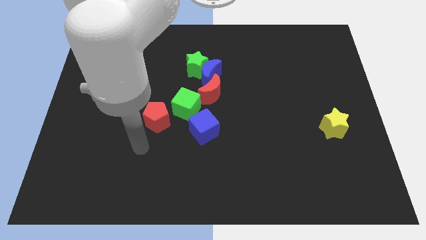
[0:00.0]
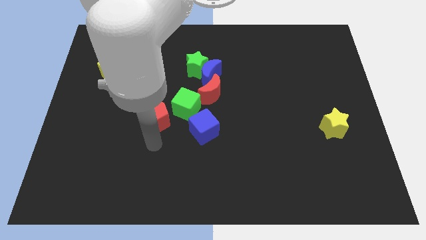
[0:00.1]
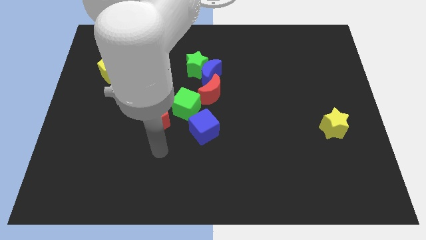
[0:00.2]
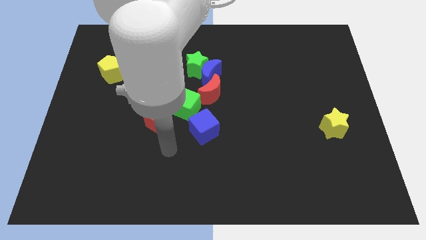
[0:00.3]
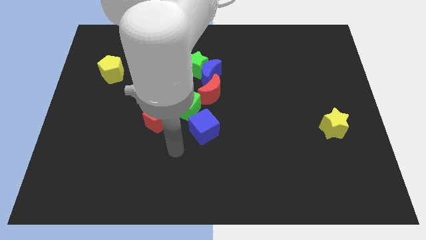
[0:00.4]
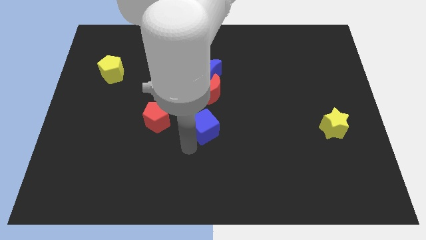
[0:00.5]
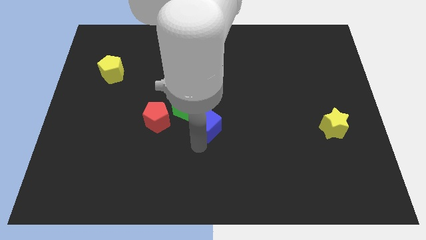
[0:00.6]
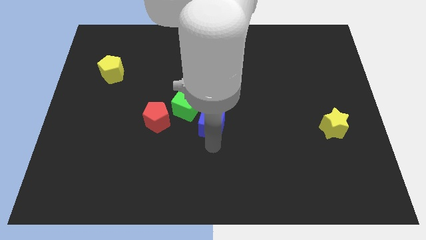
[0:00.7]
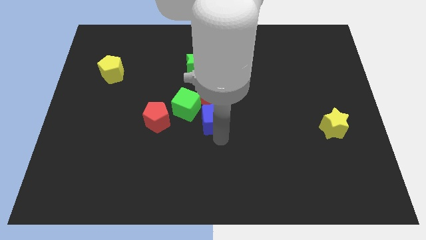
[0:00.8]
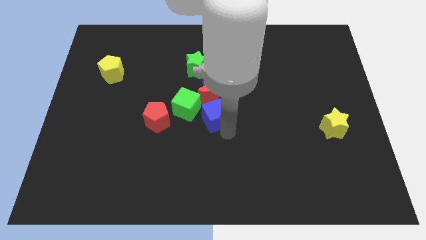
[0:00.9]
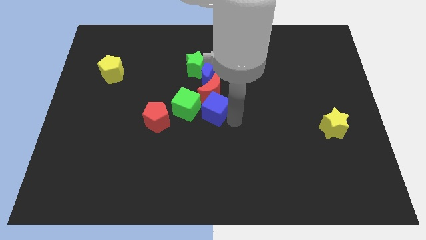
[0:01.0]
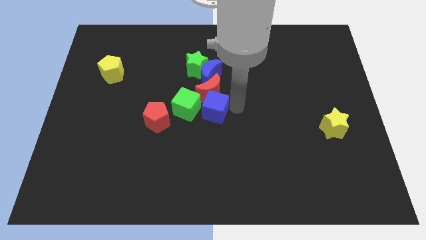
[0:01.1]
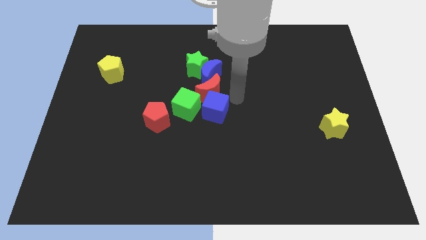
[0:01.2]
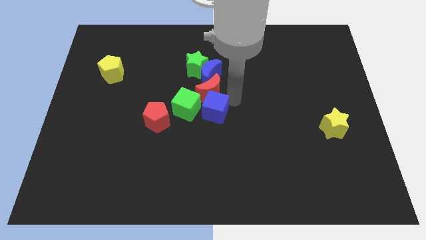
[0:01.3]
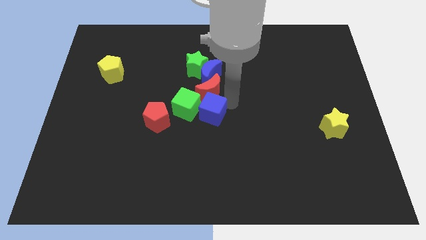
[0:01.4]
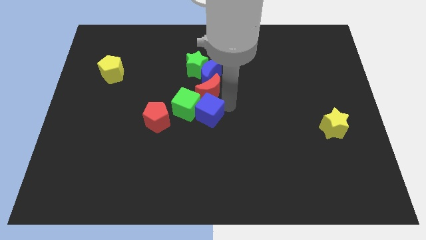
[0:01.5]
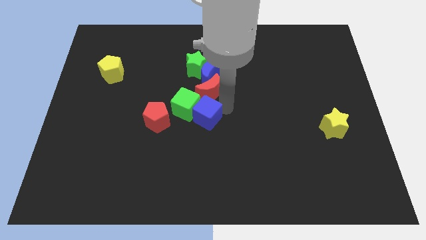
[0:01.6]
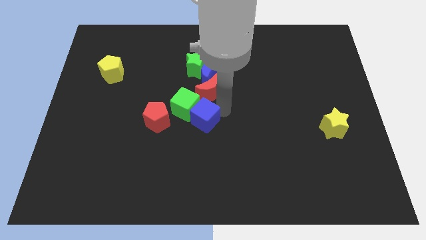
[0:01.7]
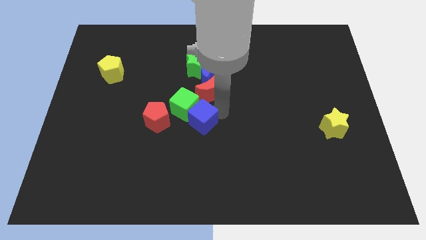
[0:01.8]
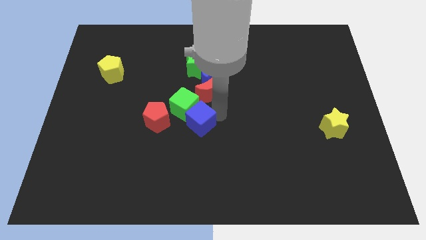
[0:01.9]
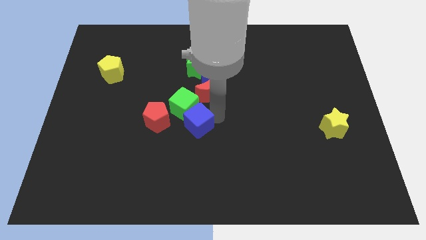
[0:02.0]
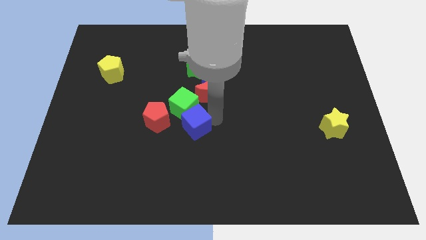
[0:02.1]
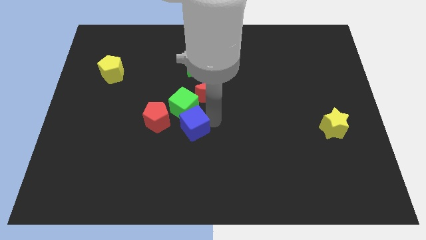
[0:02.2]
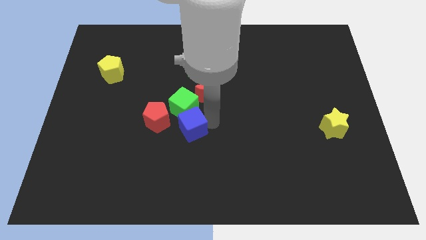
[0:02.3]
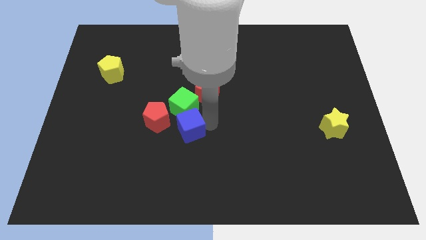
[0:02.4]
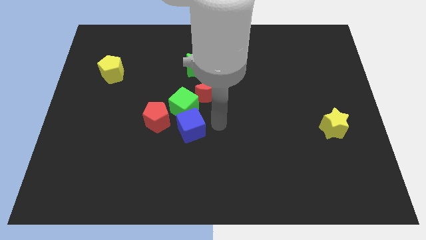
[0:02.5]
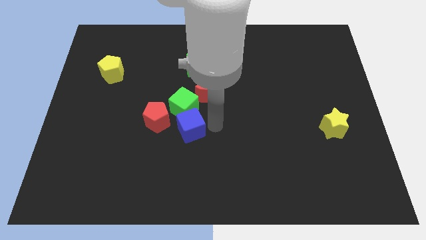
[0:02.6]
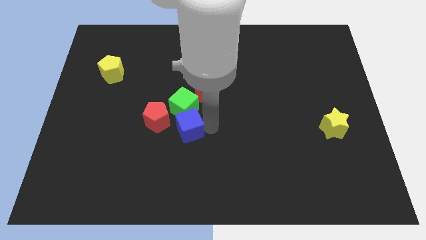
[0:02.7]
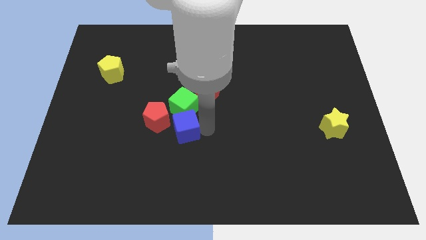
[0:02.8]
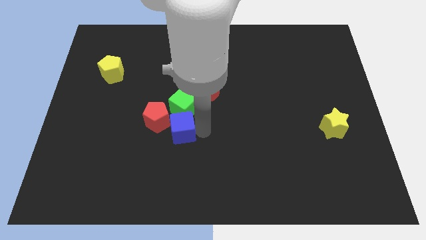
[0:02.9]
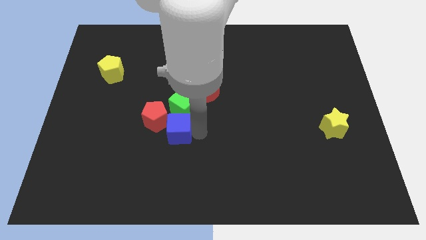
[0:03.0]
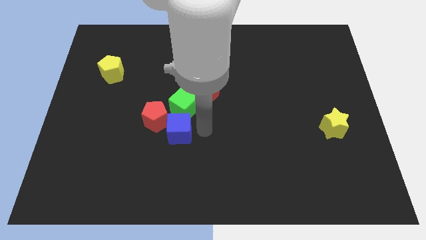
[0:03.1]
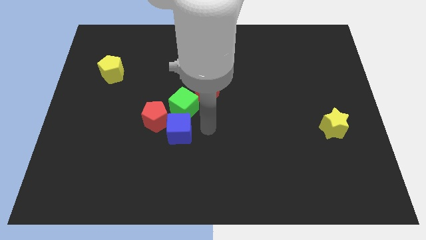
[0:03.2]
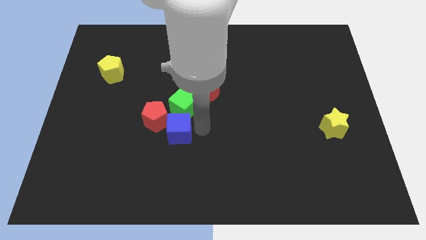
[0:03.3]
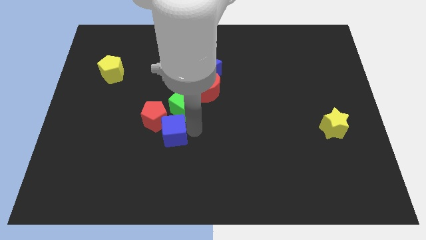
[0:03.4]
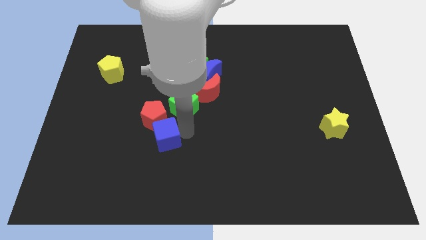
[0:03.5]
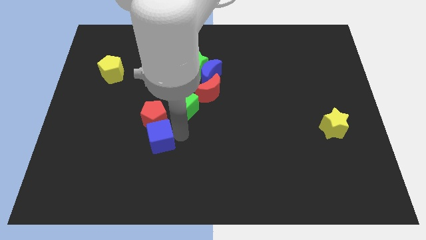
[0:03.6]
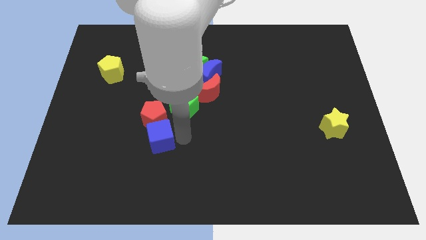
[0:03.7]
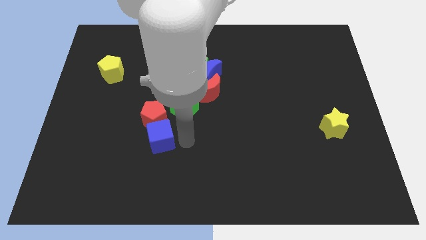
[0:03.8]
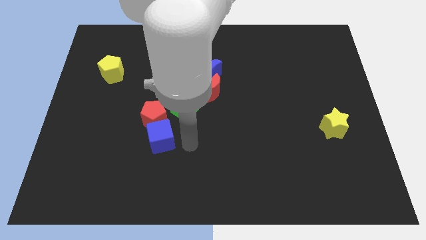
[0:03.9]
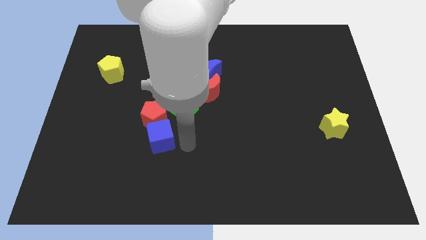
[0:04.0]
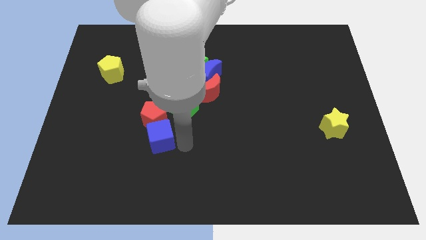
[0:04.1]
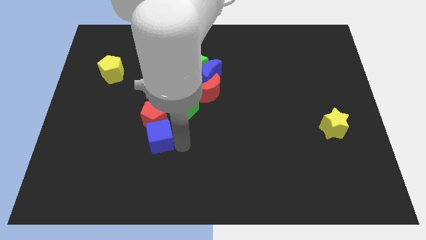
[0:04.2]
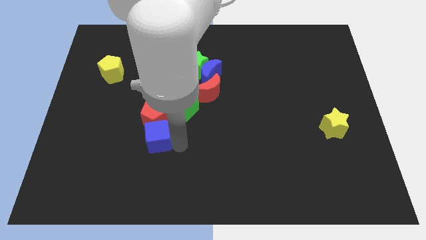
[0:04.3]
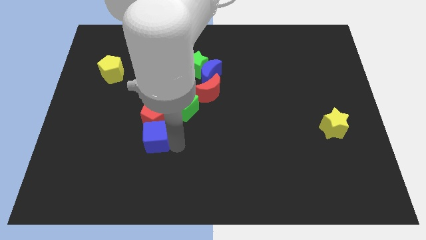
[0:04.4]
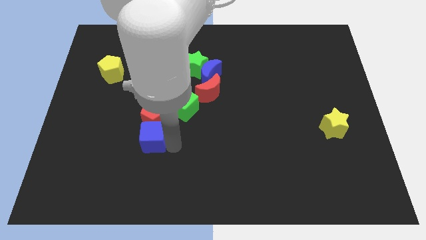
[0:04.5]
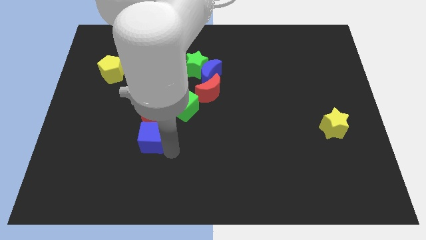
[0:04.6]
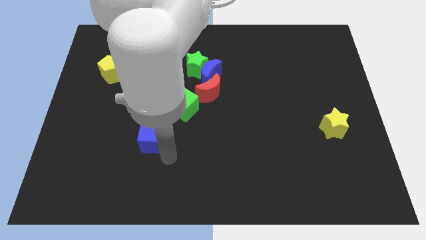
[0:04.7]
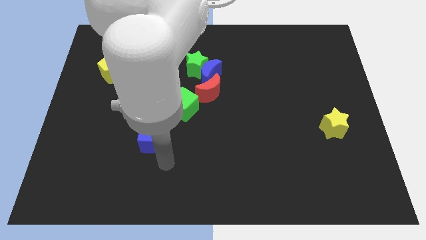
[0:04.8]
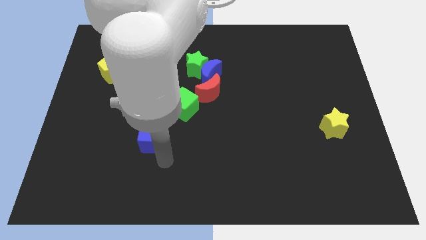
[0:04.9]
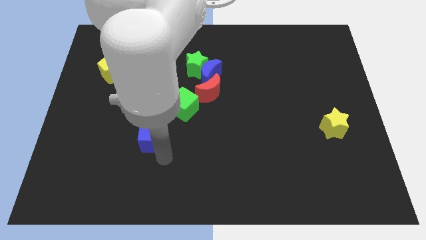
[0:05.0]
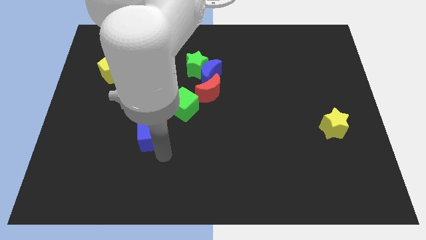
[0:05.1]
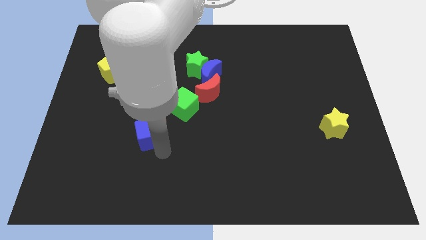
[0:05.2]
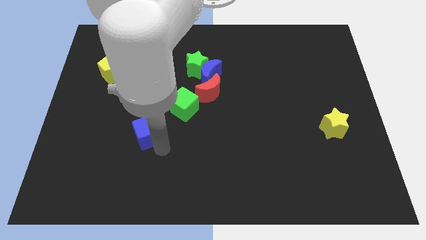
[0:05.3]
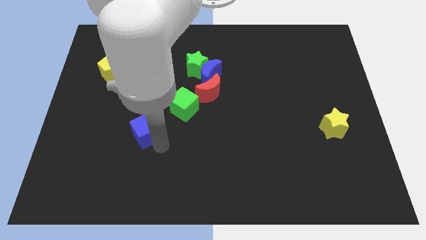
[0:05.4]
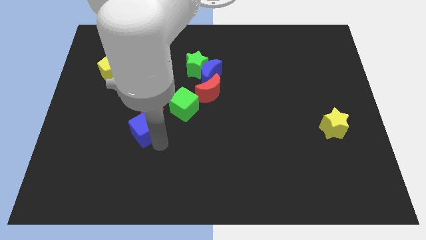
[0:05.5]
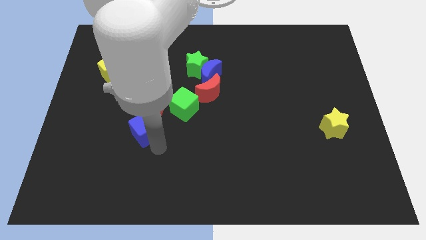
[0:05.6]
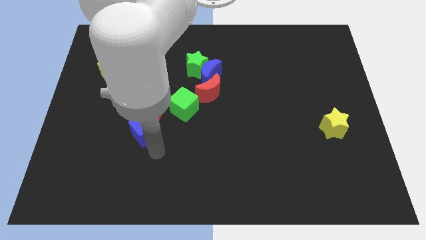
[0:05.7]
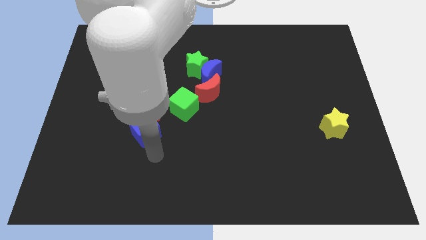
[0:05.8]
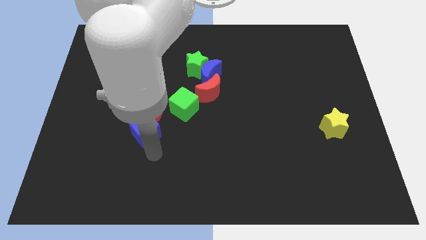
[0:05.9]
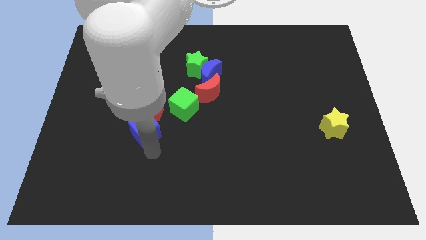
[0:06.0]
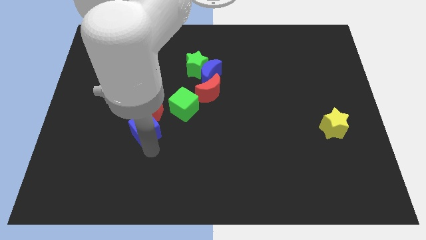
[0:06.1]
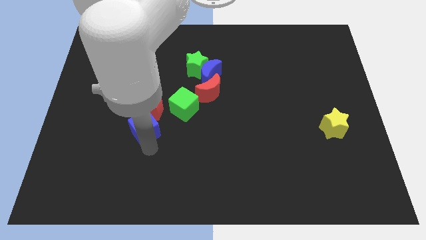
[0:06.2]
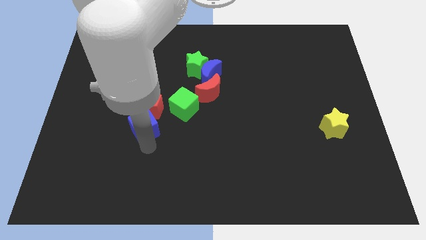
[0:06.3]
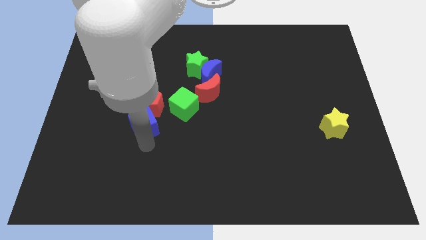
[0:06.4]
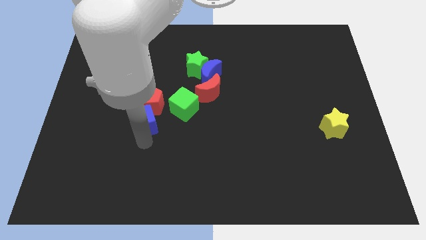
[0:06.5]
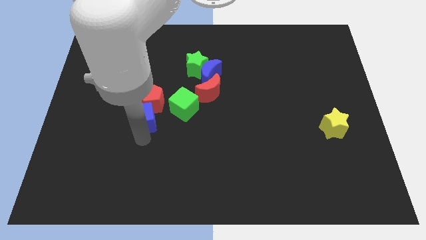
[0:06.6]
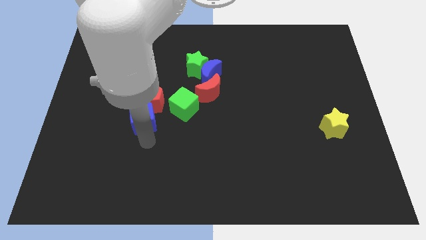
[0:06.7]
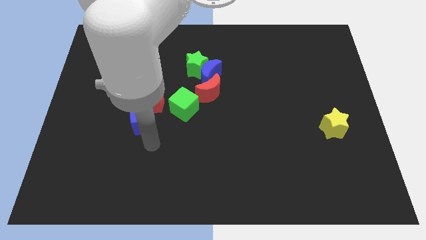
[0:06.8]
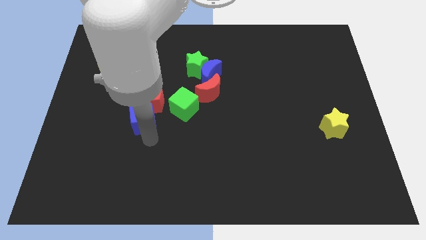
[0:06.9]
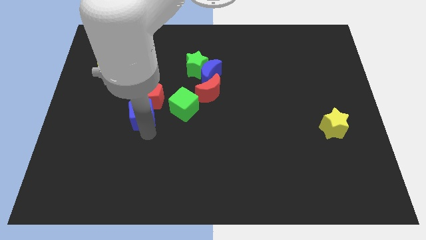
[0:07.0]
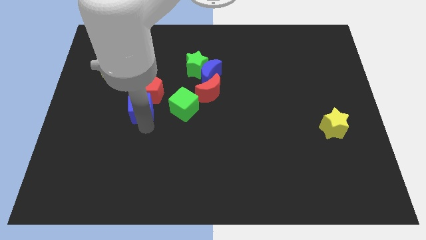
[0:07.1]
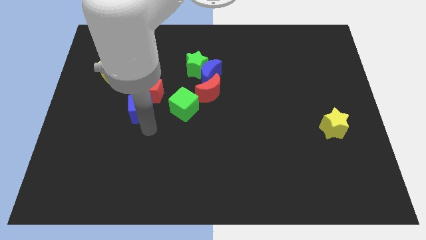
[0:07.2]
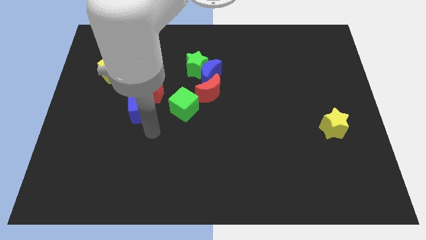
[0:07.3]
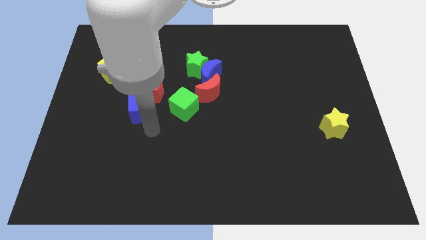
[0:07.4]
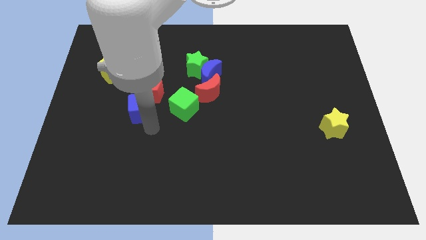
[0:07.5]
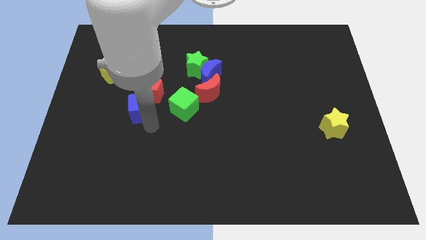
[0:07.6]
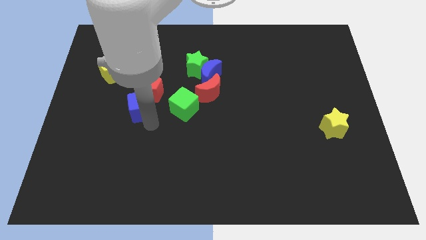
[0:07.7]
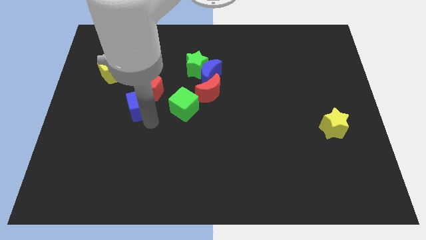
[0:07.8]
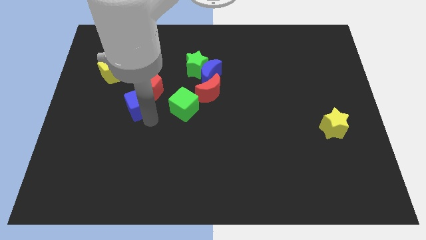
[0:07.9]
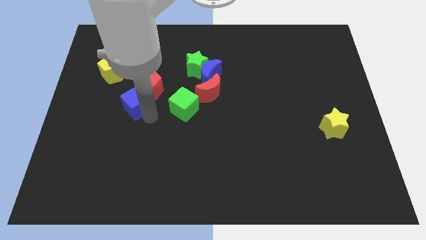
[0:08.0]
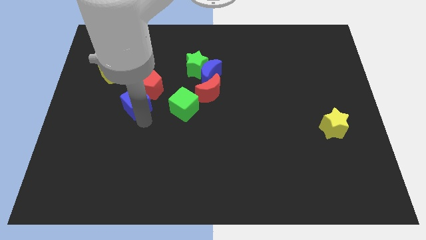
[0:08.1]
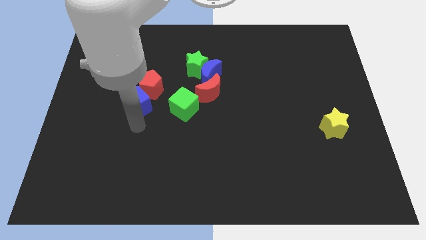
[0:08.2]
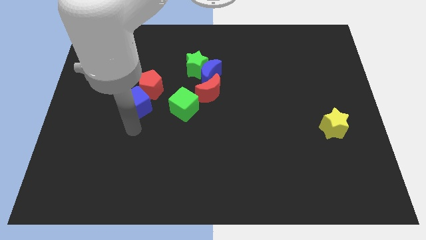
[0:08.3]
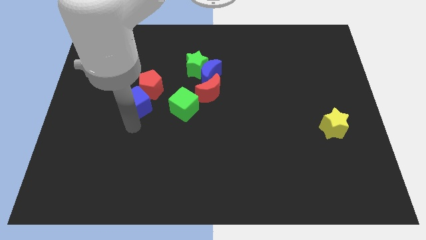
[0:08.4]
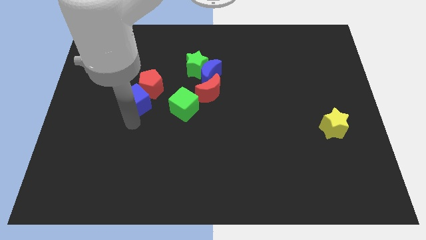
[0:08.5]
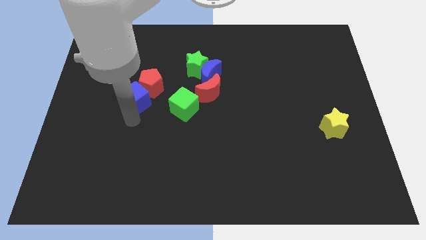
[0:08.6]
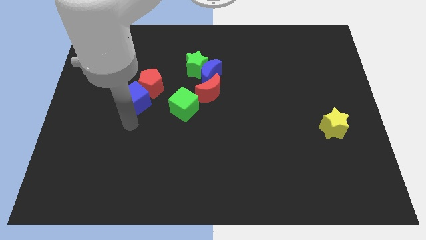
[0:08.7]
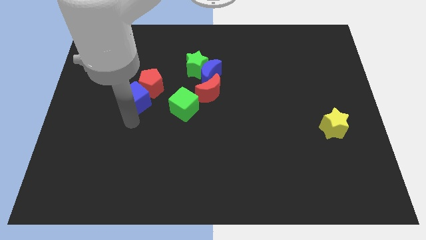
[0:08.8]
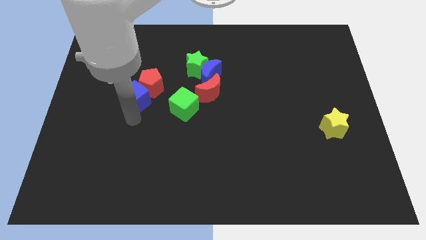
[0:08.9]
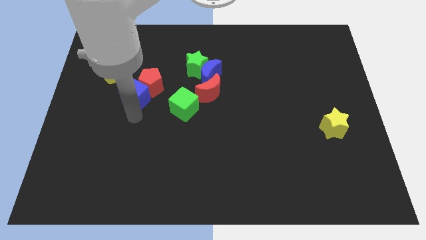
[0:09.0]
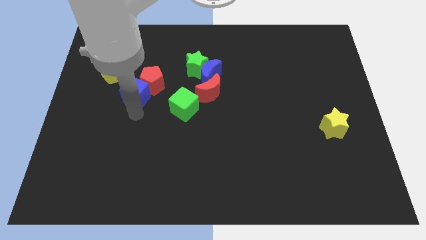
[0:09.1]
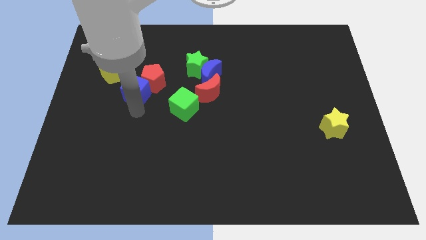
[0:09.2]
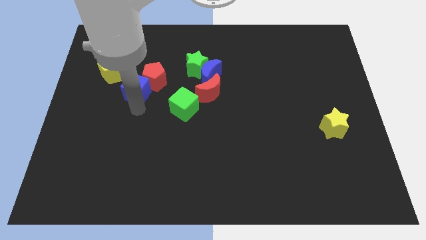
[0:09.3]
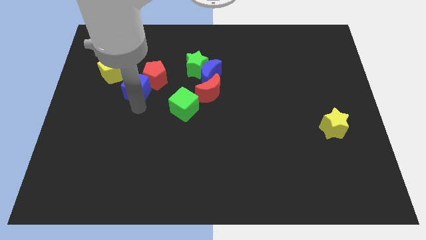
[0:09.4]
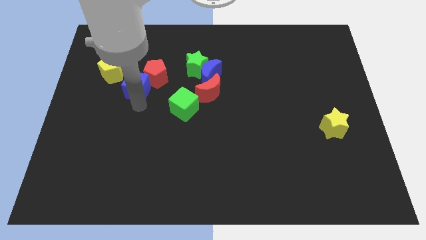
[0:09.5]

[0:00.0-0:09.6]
push the blue cube diagonally up and left
